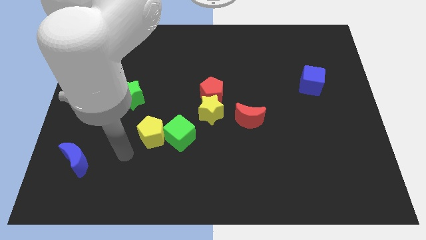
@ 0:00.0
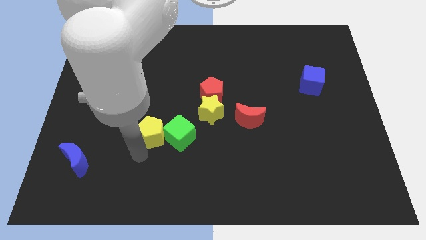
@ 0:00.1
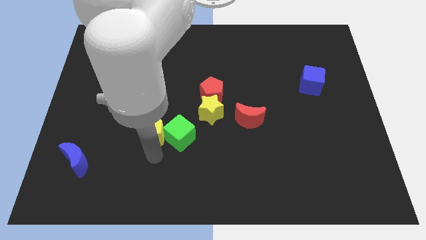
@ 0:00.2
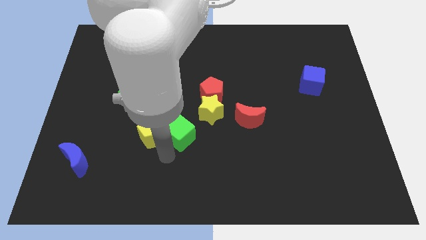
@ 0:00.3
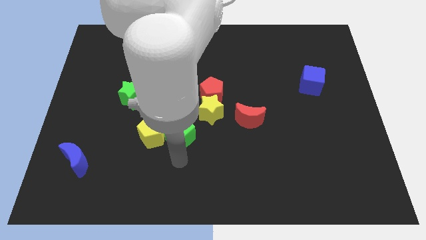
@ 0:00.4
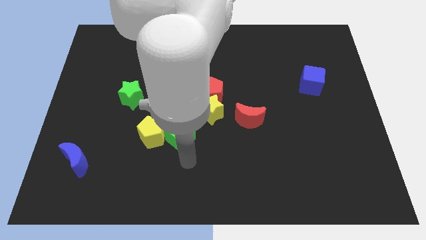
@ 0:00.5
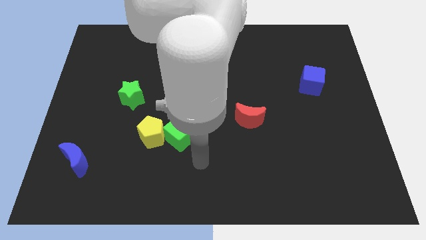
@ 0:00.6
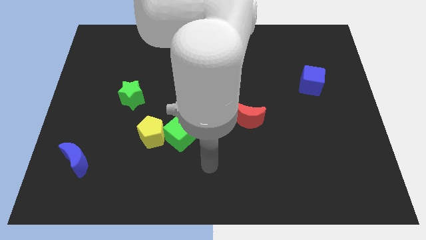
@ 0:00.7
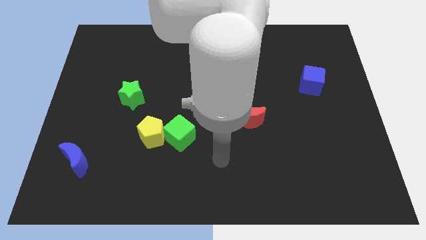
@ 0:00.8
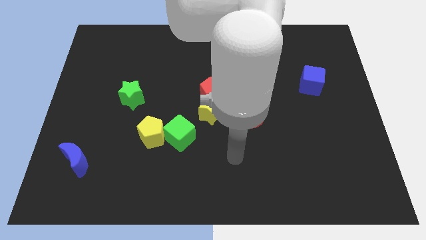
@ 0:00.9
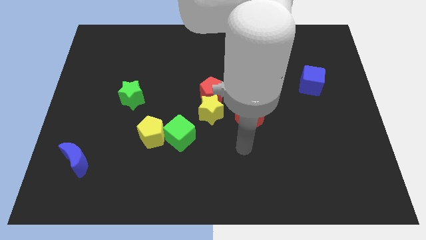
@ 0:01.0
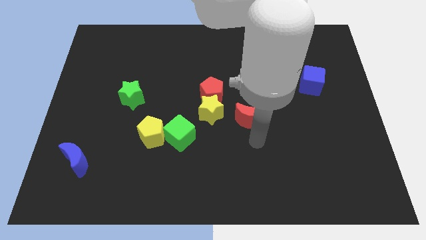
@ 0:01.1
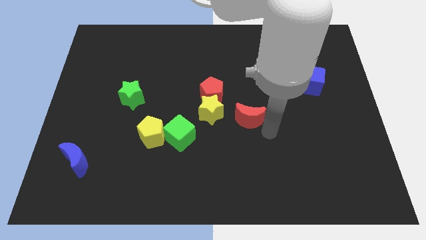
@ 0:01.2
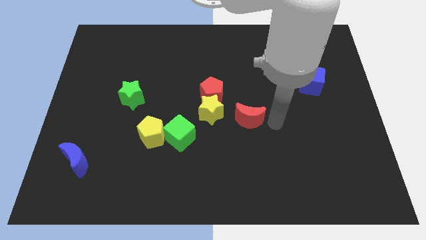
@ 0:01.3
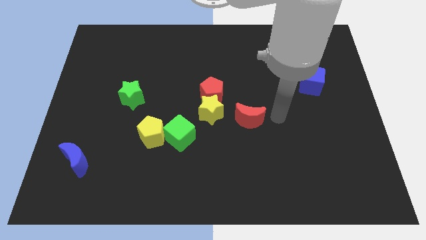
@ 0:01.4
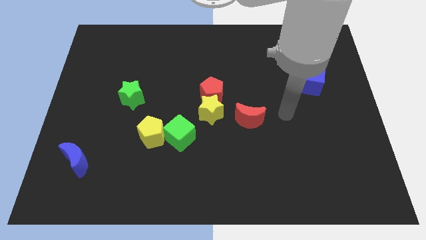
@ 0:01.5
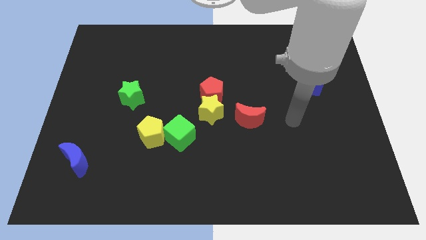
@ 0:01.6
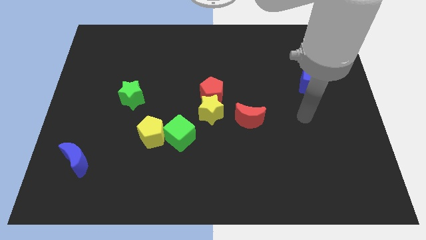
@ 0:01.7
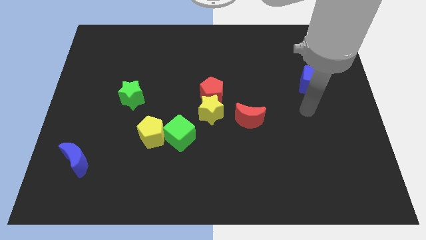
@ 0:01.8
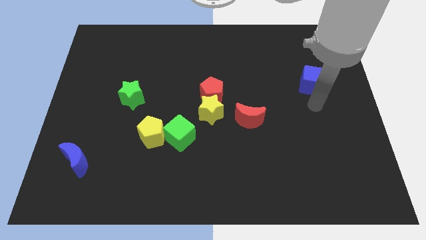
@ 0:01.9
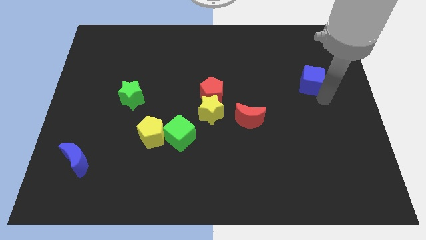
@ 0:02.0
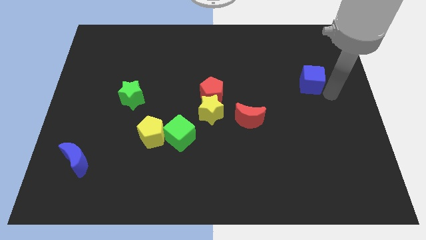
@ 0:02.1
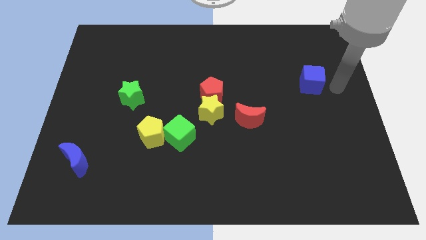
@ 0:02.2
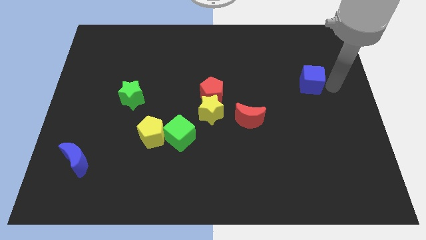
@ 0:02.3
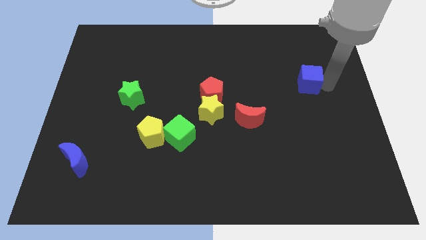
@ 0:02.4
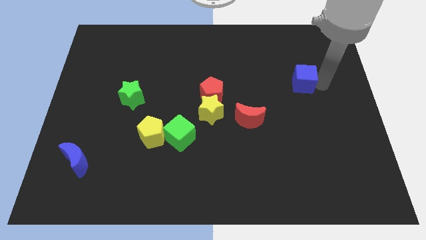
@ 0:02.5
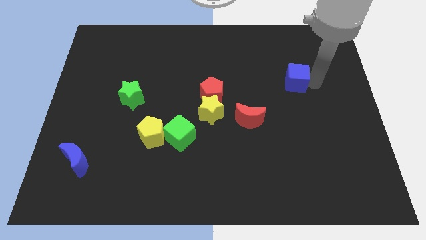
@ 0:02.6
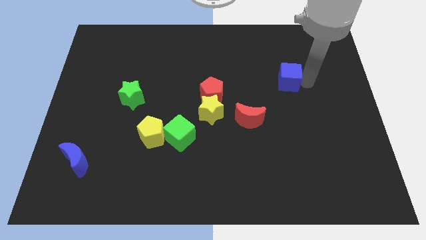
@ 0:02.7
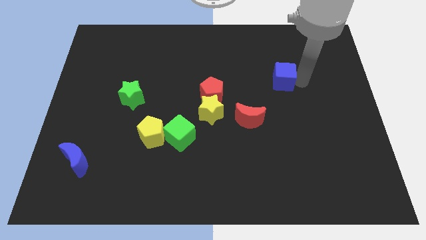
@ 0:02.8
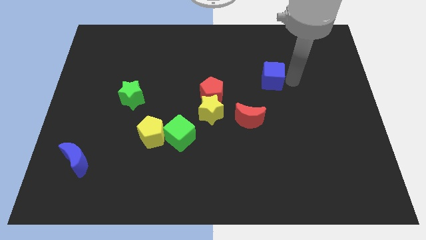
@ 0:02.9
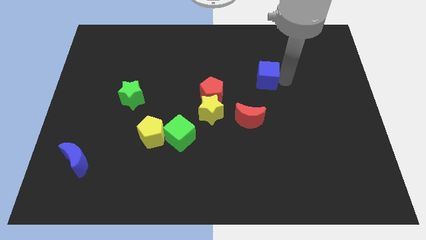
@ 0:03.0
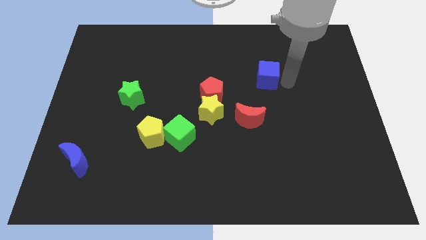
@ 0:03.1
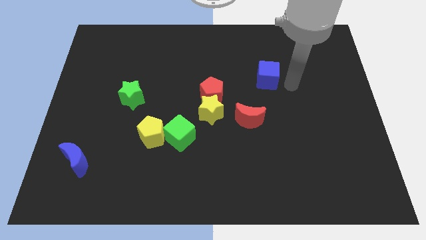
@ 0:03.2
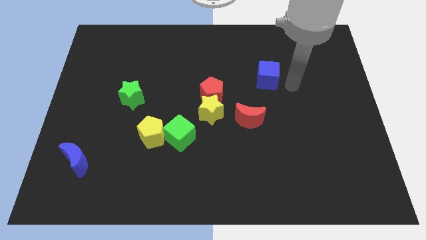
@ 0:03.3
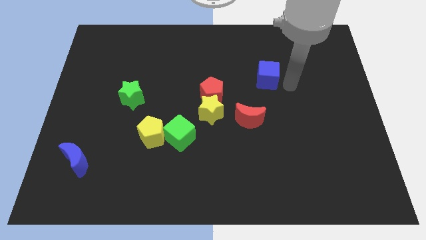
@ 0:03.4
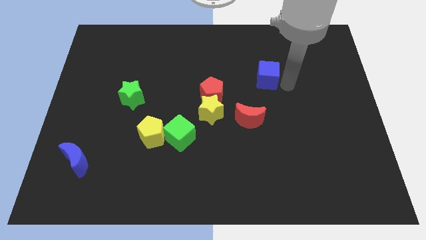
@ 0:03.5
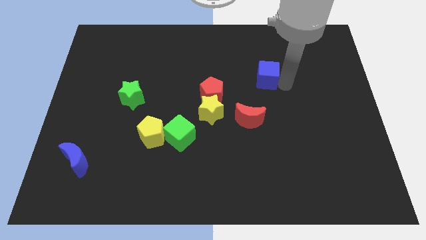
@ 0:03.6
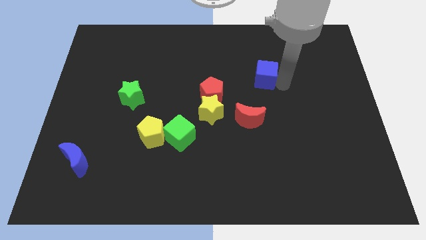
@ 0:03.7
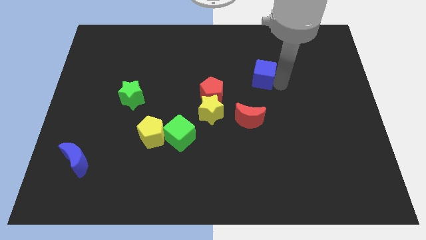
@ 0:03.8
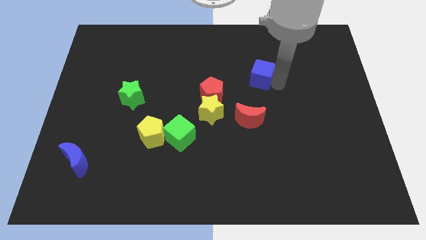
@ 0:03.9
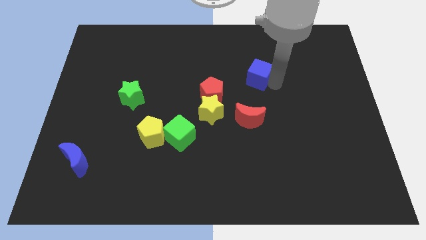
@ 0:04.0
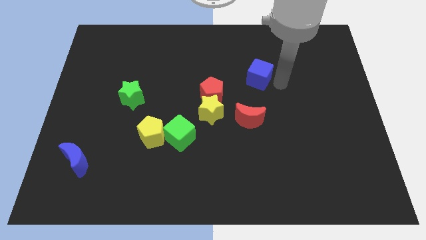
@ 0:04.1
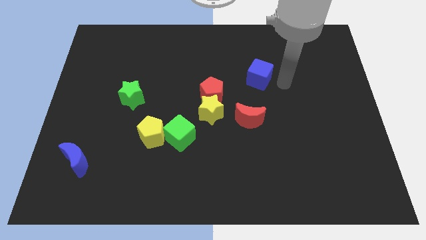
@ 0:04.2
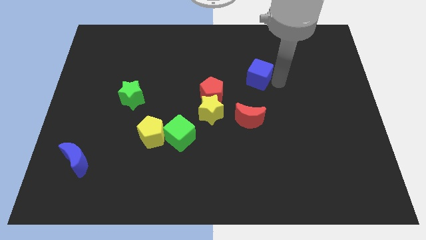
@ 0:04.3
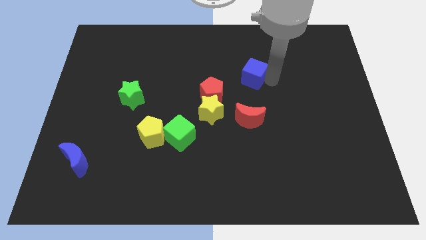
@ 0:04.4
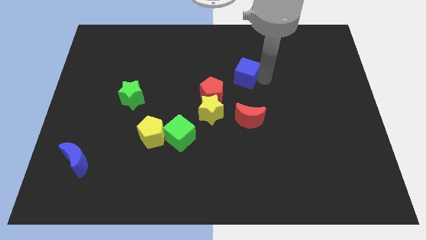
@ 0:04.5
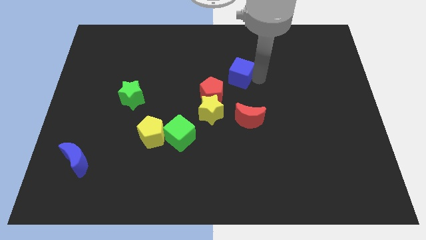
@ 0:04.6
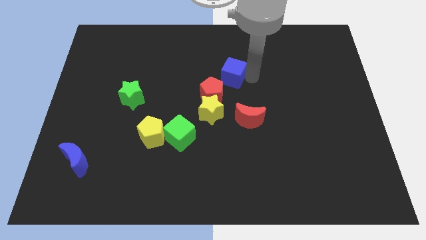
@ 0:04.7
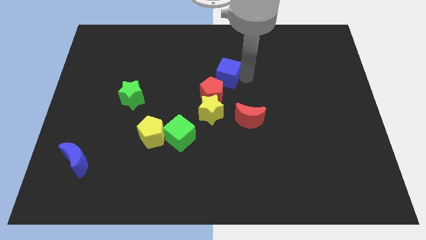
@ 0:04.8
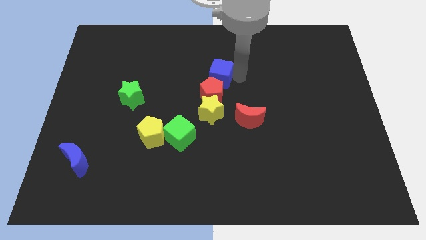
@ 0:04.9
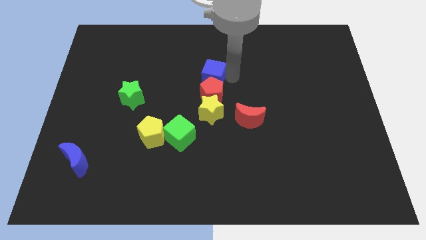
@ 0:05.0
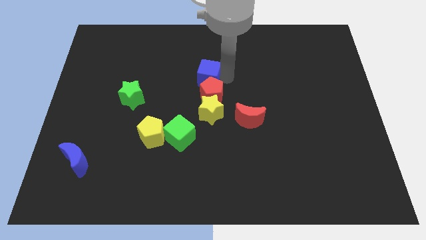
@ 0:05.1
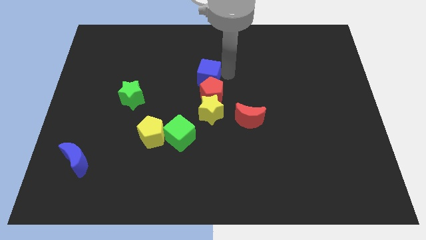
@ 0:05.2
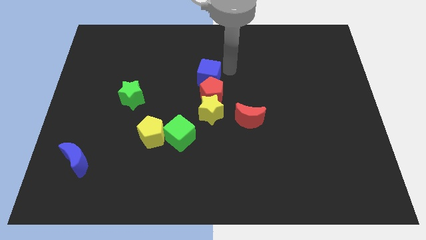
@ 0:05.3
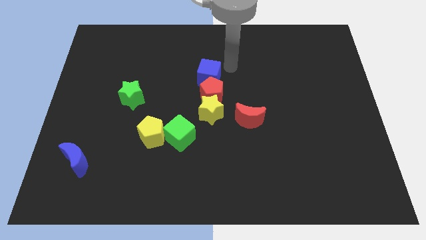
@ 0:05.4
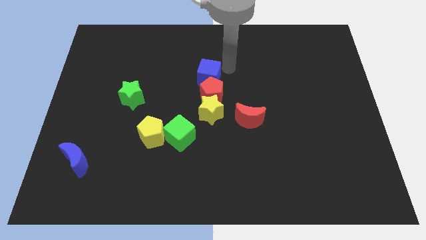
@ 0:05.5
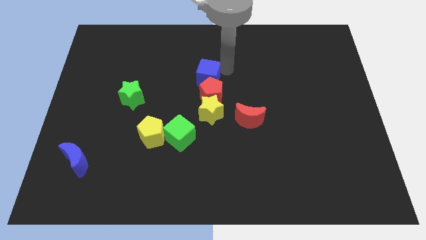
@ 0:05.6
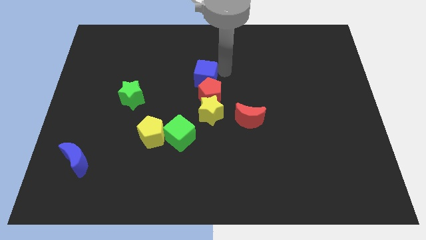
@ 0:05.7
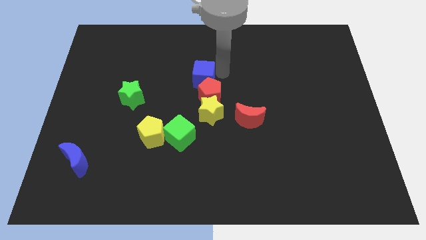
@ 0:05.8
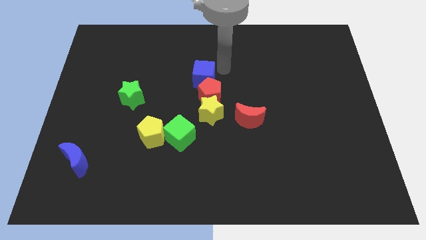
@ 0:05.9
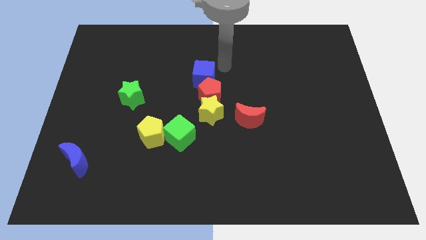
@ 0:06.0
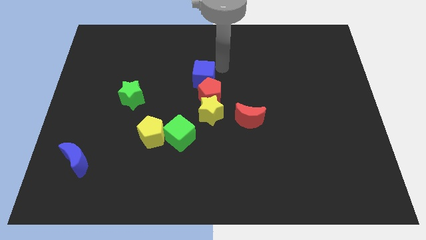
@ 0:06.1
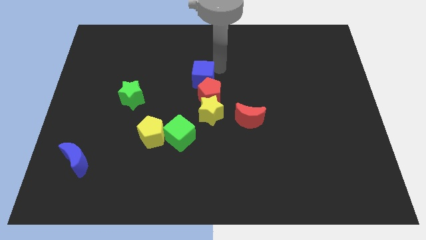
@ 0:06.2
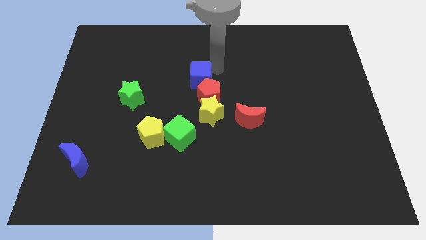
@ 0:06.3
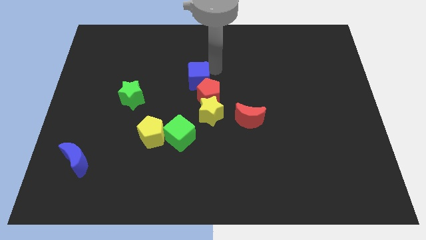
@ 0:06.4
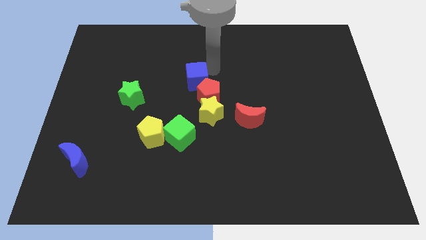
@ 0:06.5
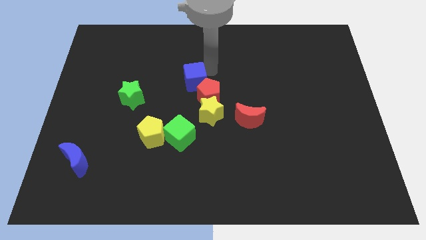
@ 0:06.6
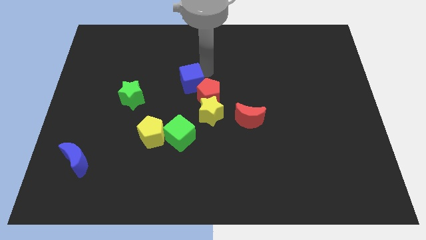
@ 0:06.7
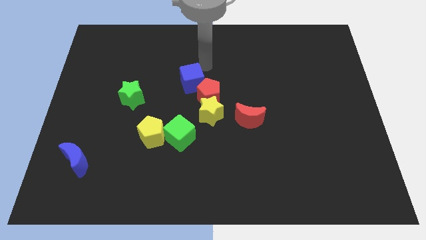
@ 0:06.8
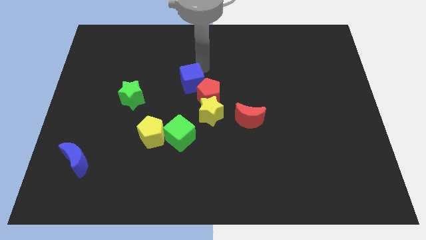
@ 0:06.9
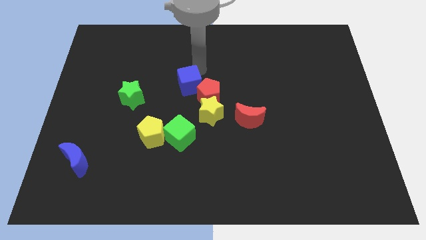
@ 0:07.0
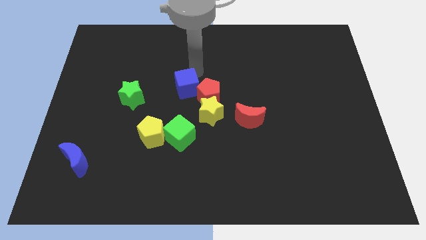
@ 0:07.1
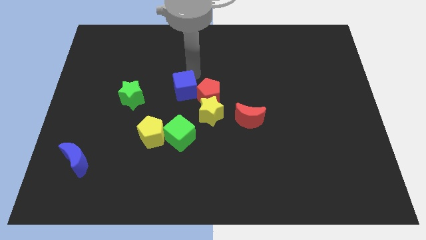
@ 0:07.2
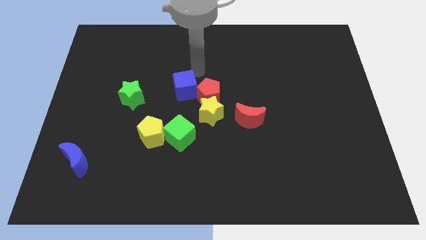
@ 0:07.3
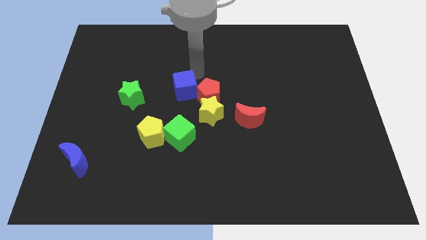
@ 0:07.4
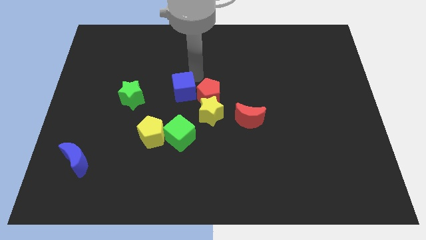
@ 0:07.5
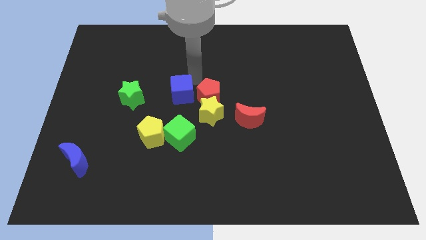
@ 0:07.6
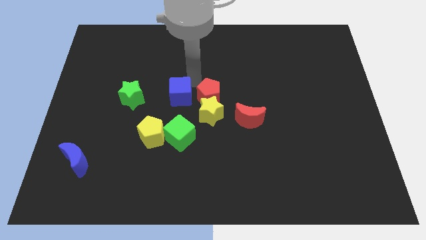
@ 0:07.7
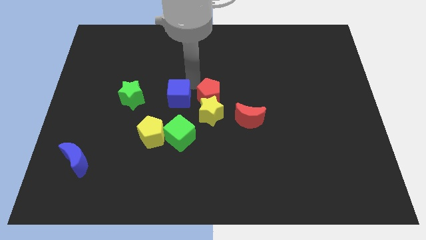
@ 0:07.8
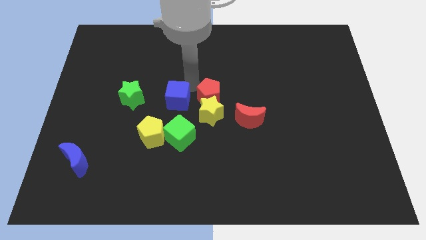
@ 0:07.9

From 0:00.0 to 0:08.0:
move the blue cube left of the yellow star
